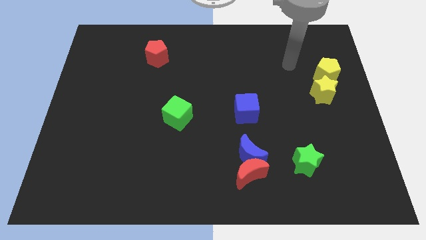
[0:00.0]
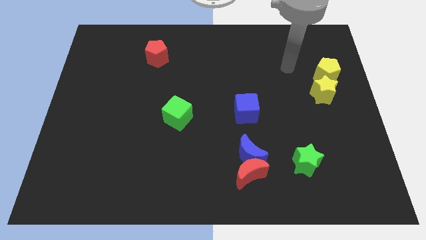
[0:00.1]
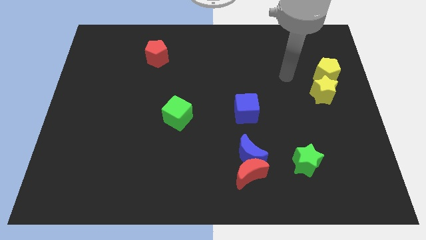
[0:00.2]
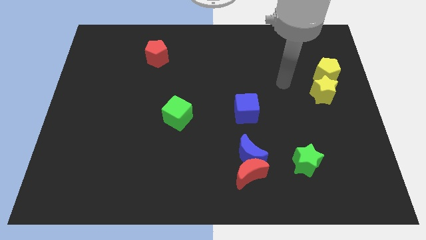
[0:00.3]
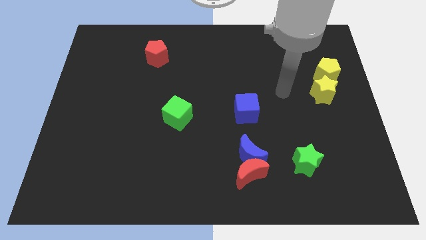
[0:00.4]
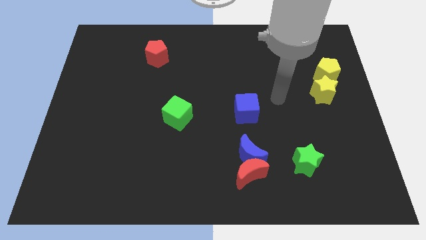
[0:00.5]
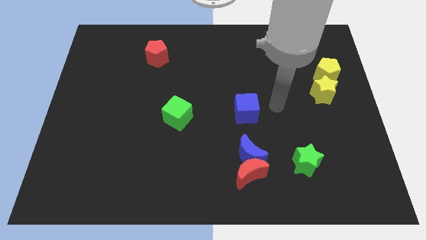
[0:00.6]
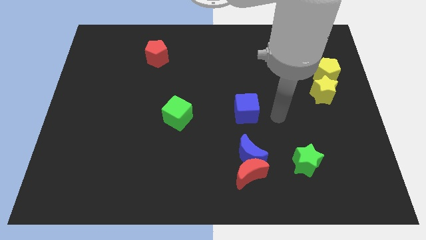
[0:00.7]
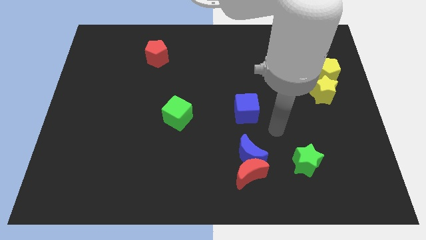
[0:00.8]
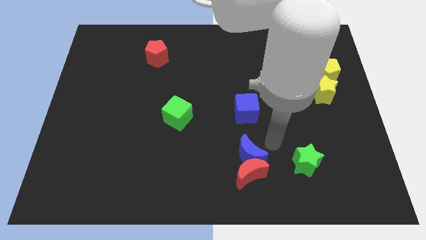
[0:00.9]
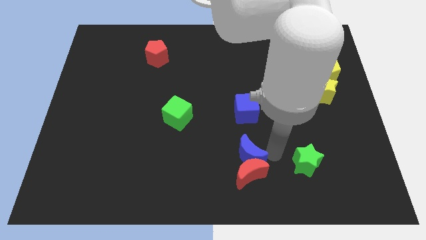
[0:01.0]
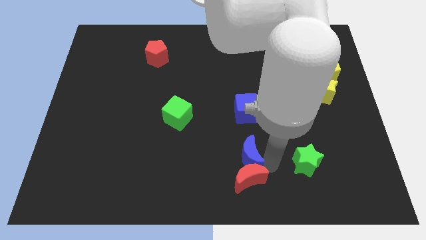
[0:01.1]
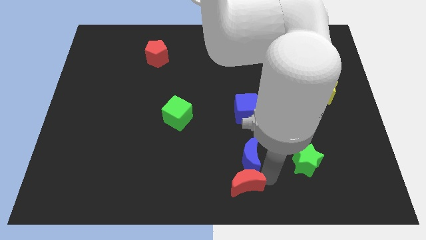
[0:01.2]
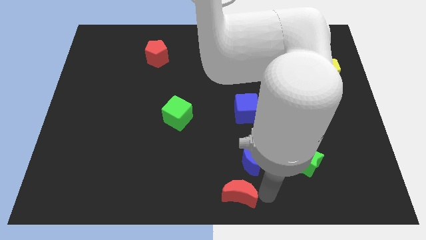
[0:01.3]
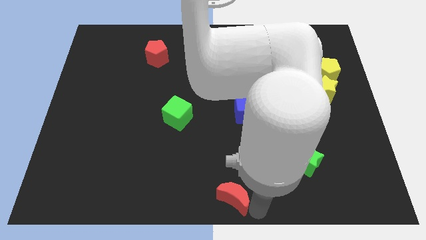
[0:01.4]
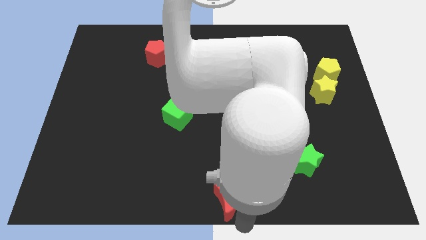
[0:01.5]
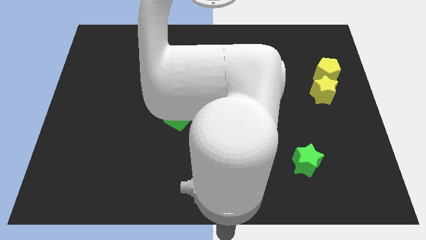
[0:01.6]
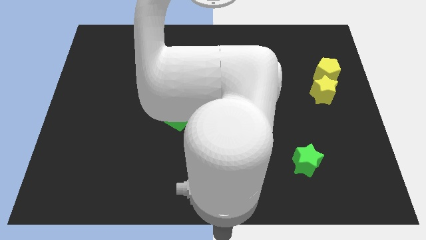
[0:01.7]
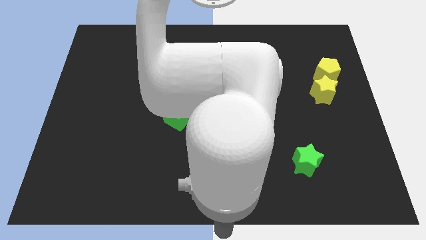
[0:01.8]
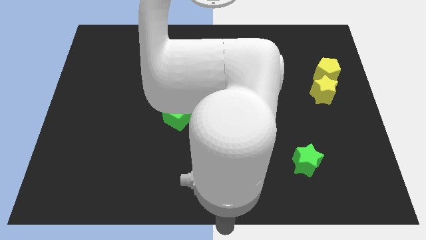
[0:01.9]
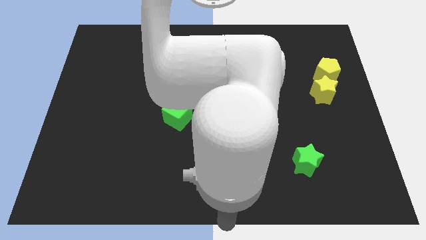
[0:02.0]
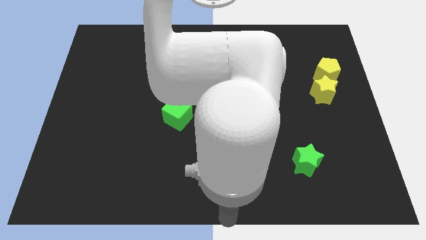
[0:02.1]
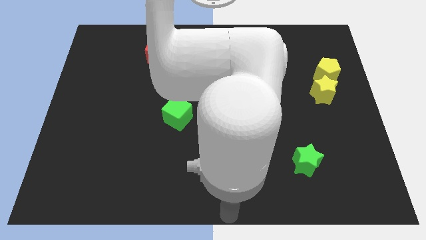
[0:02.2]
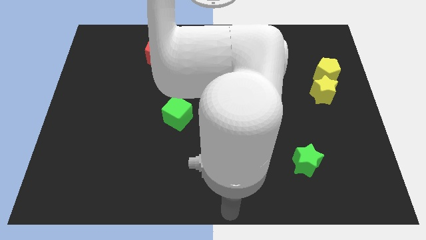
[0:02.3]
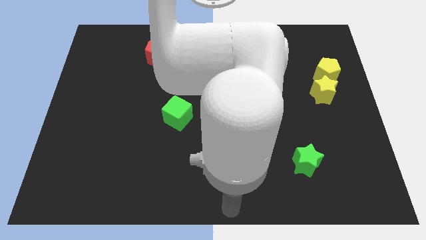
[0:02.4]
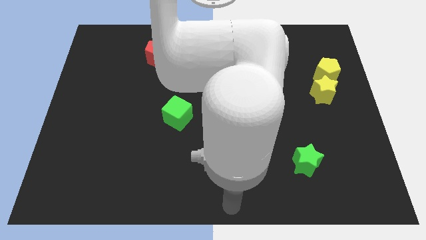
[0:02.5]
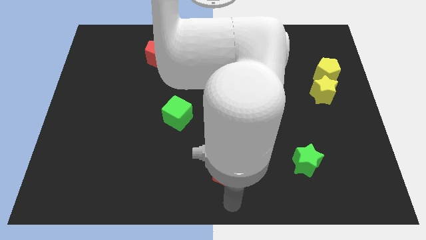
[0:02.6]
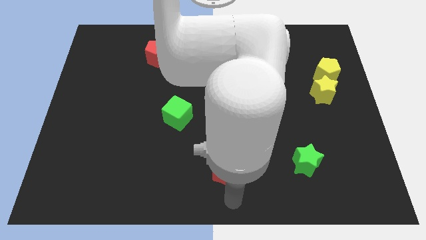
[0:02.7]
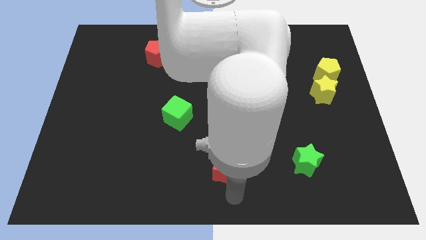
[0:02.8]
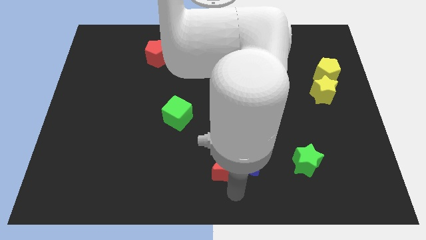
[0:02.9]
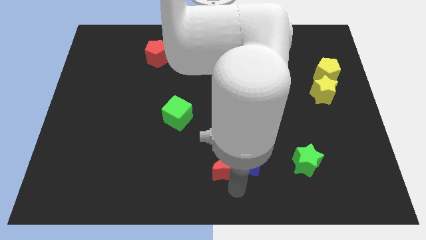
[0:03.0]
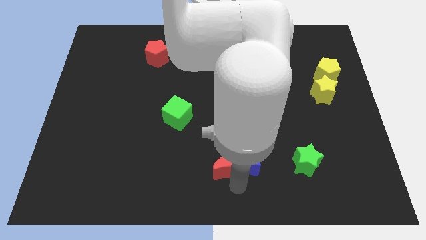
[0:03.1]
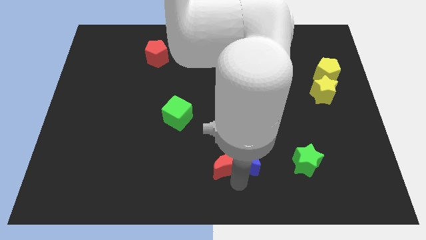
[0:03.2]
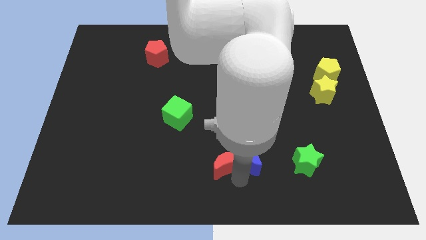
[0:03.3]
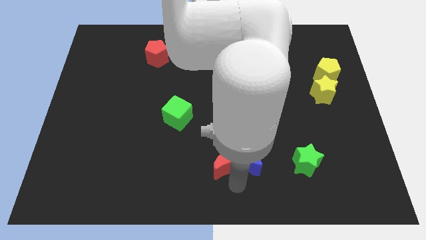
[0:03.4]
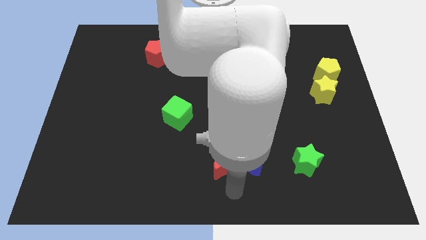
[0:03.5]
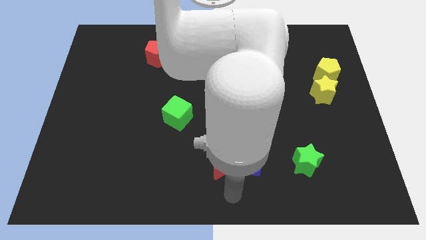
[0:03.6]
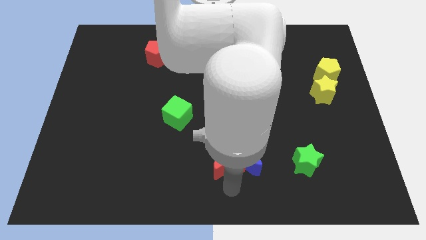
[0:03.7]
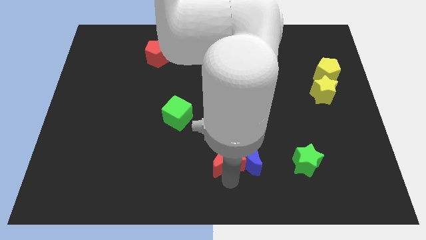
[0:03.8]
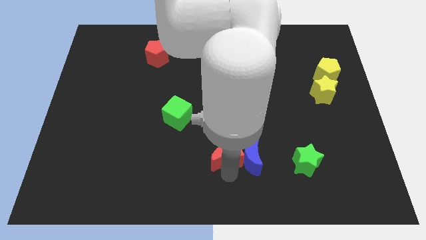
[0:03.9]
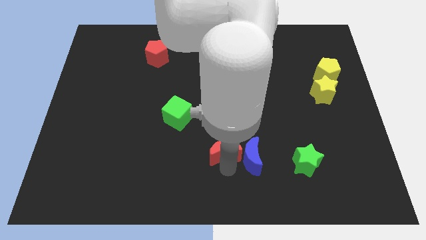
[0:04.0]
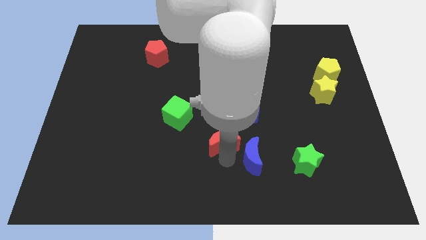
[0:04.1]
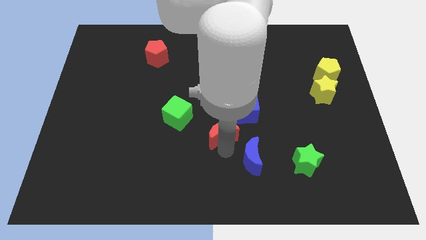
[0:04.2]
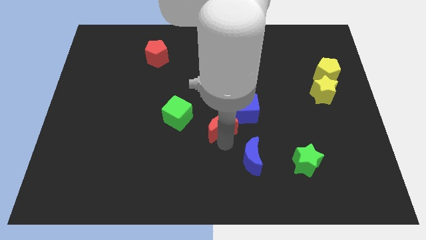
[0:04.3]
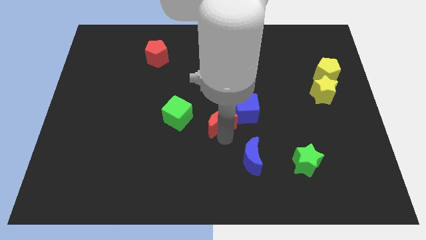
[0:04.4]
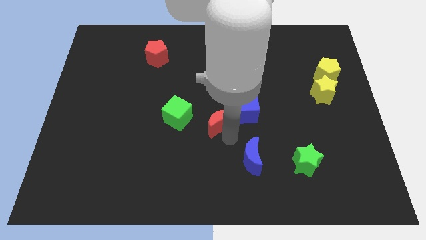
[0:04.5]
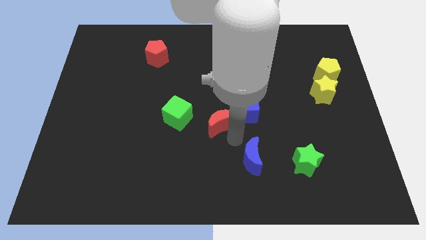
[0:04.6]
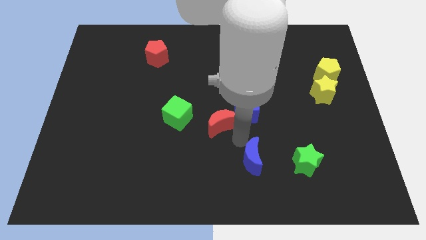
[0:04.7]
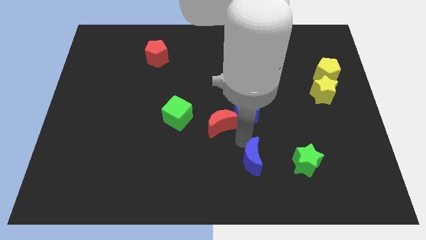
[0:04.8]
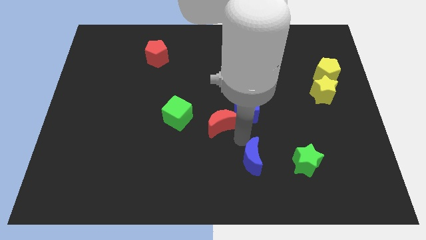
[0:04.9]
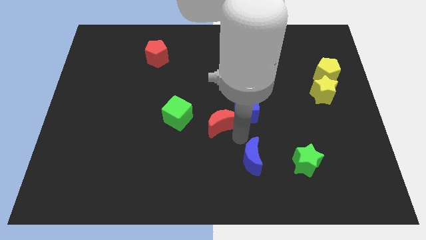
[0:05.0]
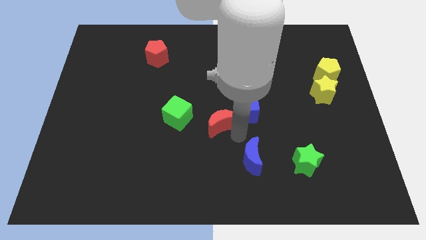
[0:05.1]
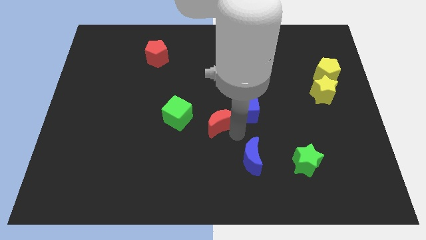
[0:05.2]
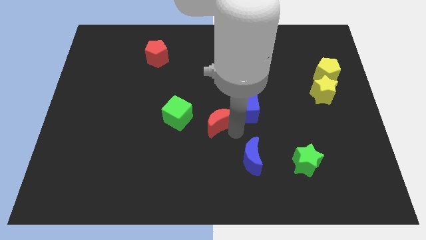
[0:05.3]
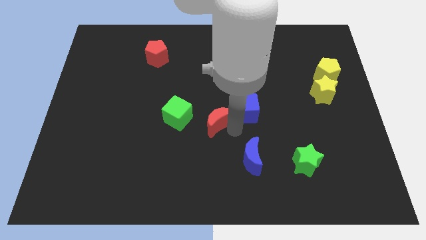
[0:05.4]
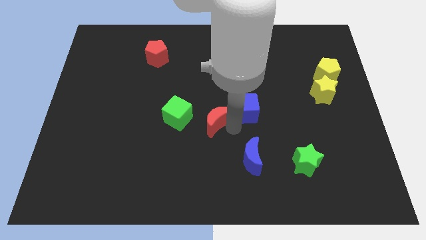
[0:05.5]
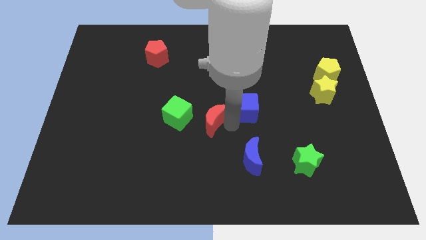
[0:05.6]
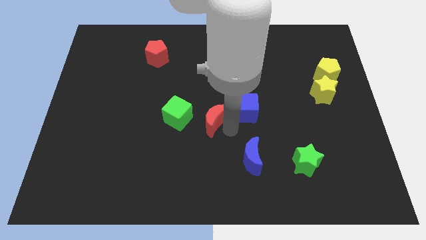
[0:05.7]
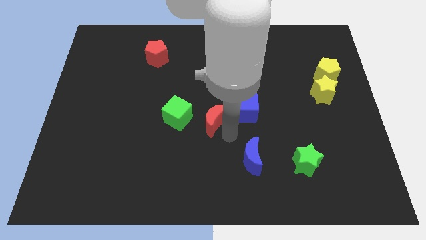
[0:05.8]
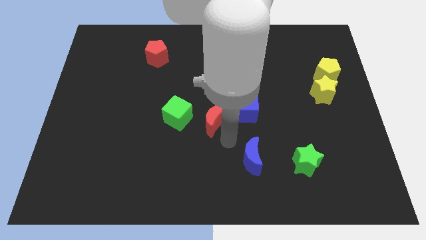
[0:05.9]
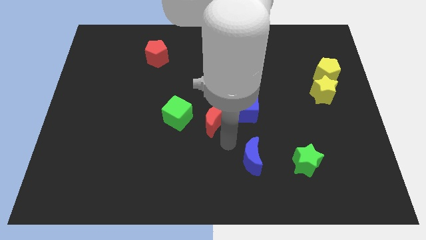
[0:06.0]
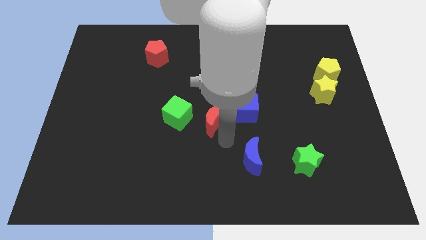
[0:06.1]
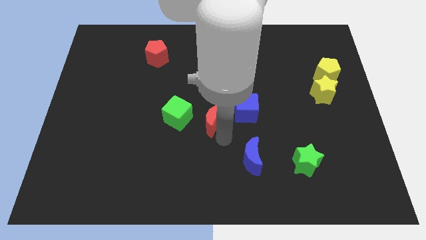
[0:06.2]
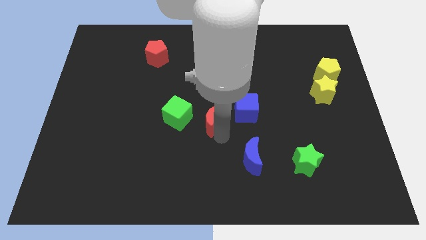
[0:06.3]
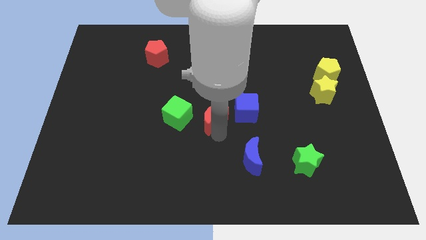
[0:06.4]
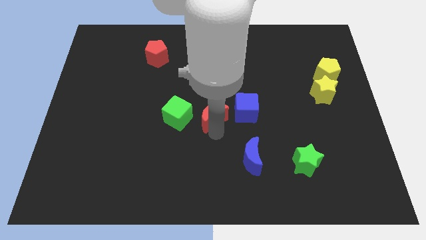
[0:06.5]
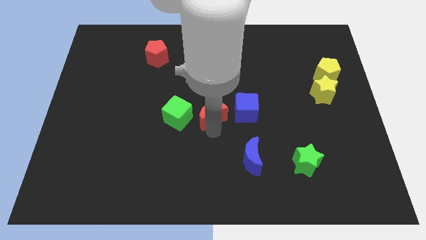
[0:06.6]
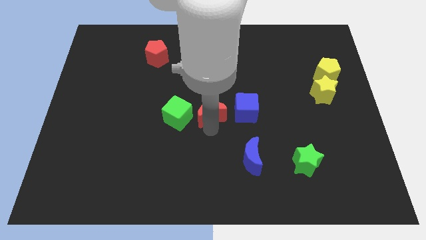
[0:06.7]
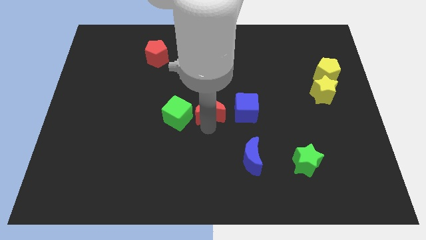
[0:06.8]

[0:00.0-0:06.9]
slide the red moon diagonally up and to the right of the green cube
